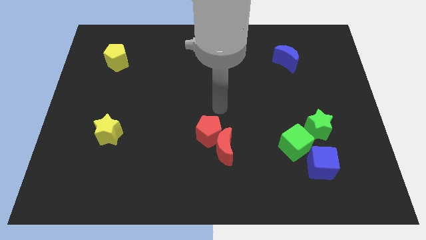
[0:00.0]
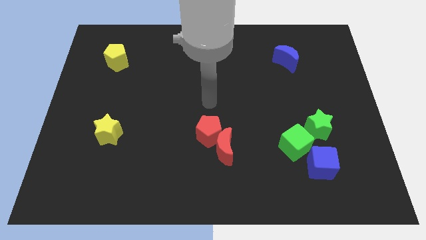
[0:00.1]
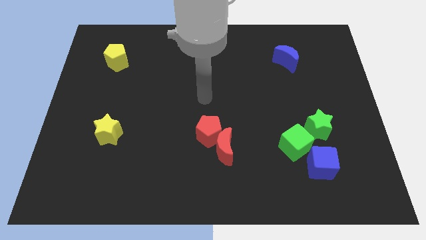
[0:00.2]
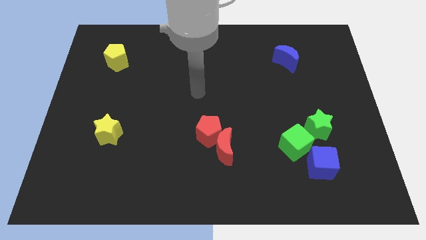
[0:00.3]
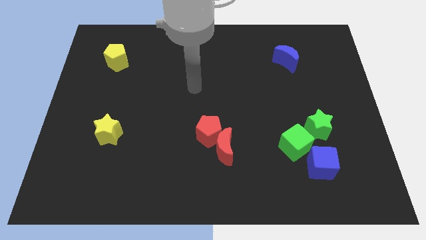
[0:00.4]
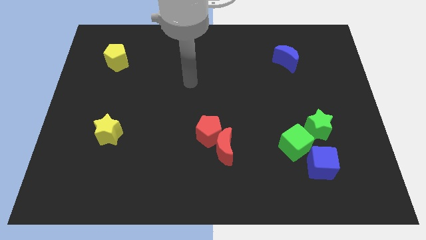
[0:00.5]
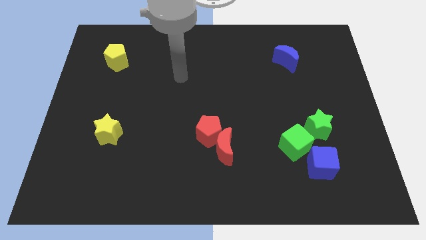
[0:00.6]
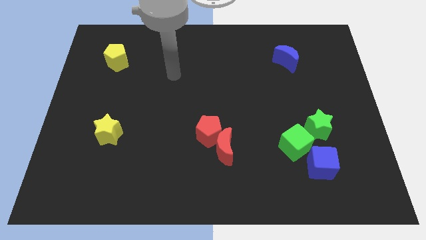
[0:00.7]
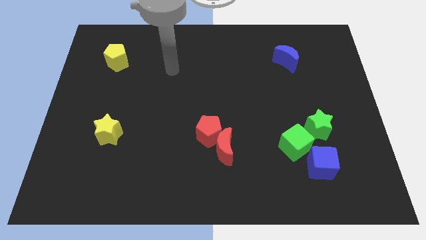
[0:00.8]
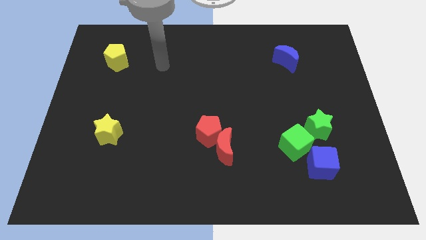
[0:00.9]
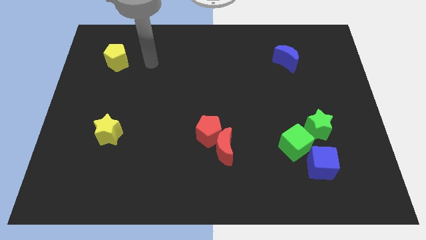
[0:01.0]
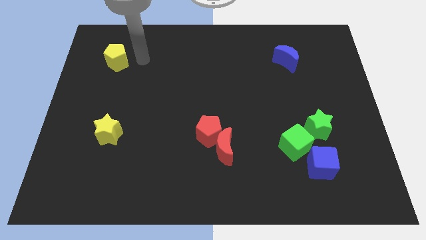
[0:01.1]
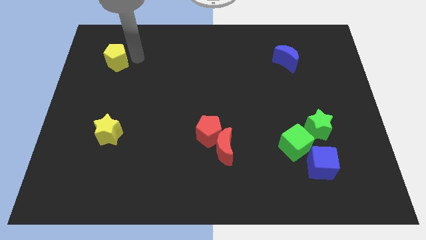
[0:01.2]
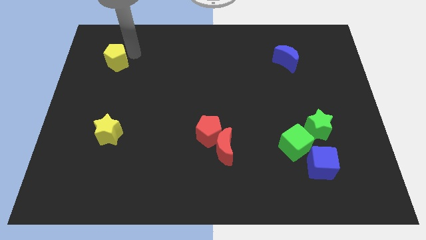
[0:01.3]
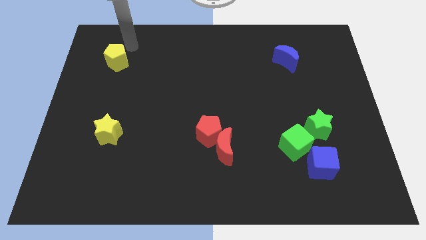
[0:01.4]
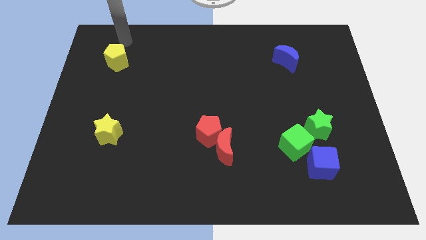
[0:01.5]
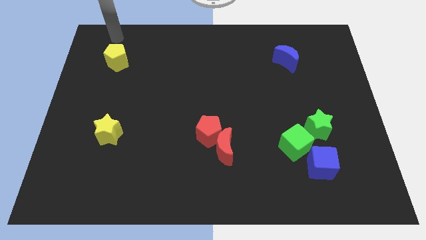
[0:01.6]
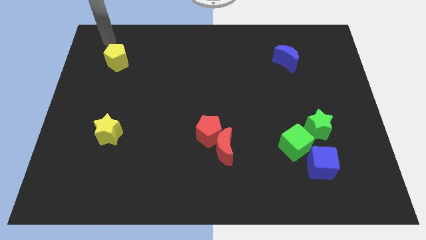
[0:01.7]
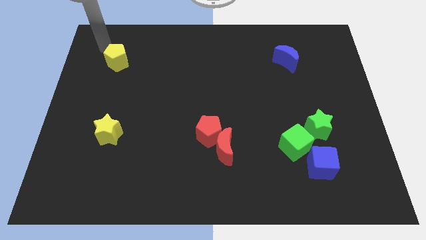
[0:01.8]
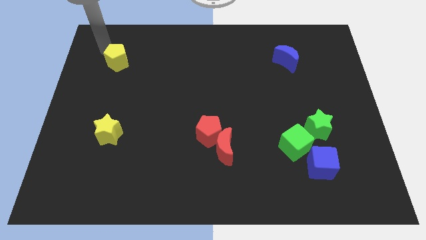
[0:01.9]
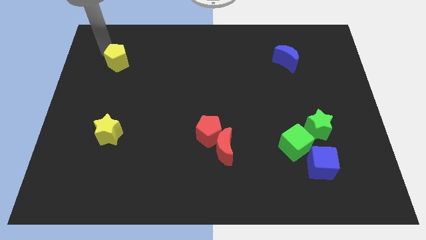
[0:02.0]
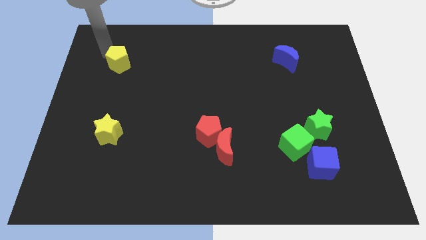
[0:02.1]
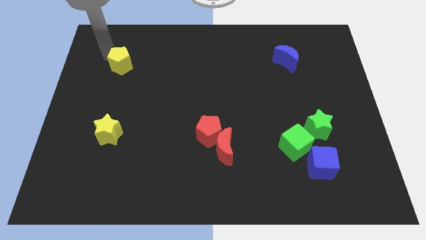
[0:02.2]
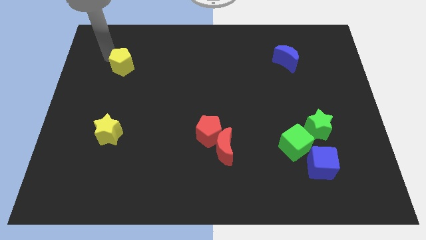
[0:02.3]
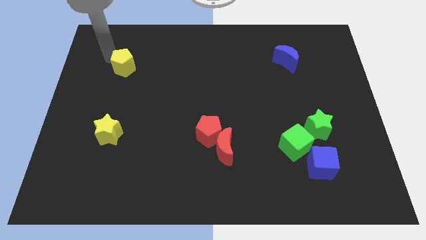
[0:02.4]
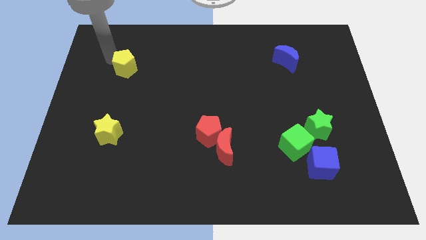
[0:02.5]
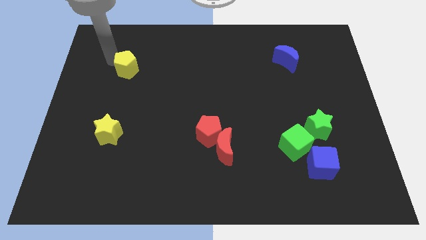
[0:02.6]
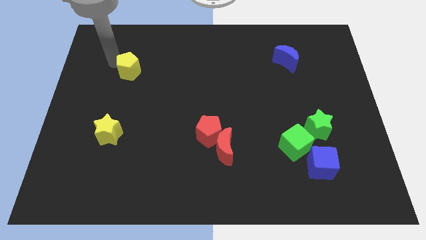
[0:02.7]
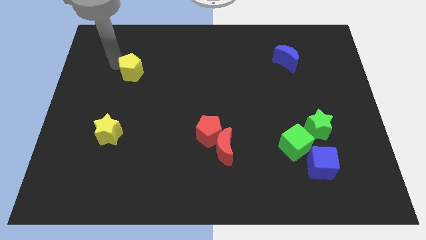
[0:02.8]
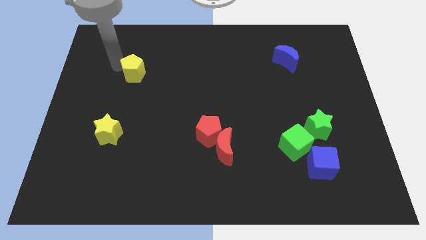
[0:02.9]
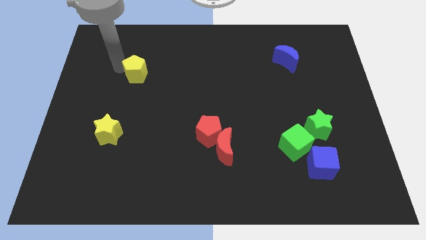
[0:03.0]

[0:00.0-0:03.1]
slide the yellow pentagon diagonally down and right slightly

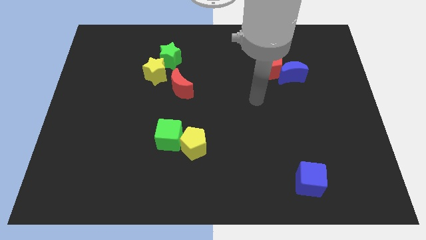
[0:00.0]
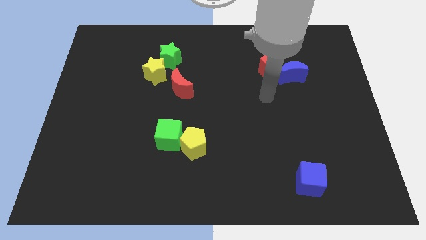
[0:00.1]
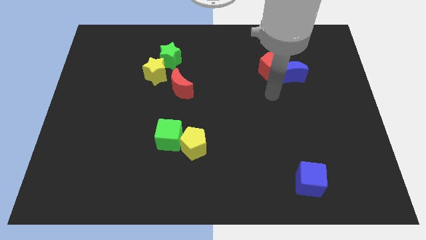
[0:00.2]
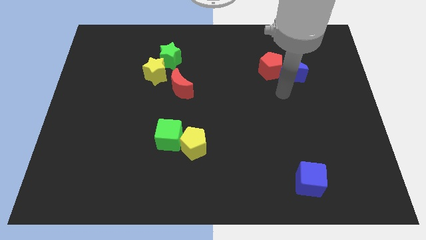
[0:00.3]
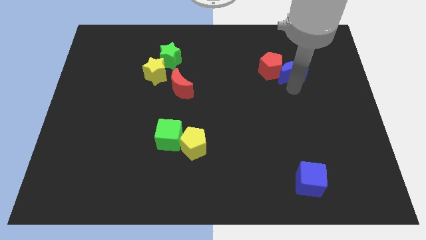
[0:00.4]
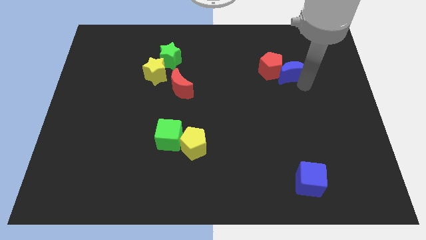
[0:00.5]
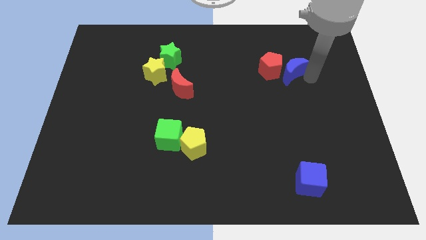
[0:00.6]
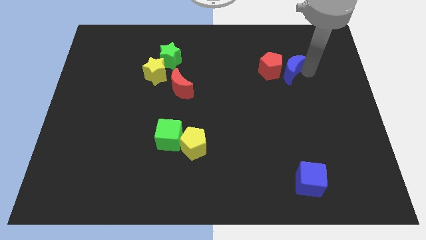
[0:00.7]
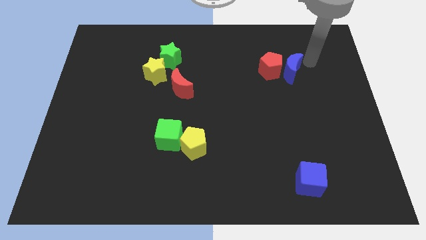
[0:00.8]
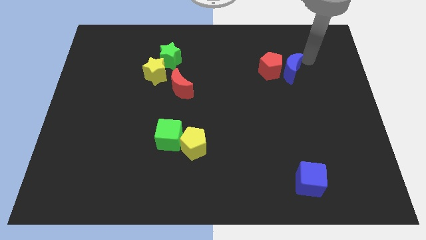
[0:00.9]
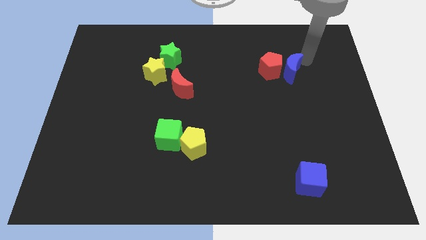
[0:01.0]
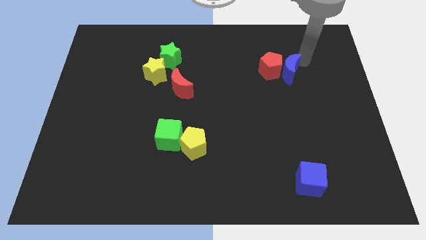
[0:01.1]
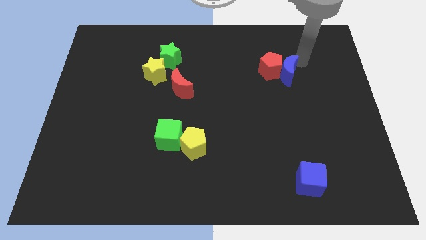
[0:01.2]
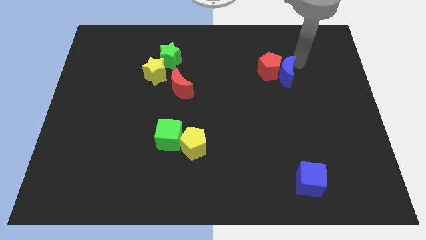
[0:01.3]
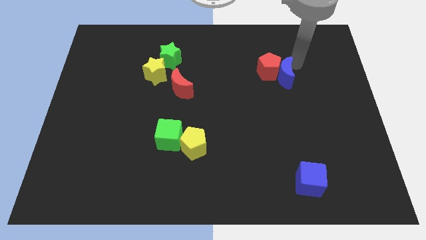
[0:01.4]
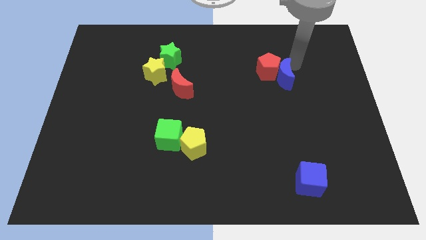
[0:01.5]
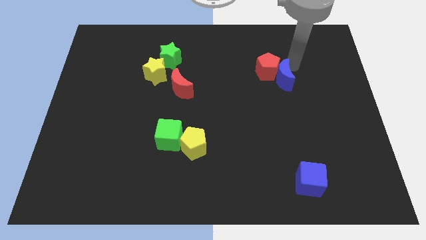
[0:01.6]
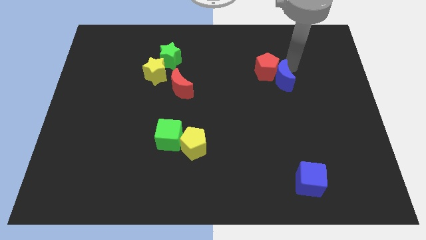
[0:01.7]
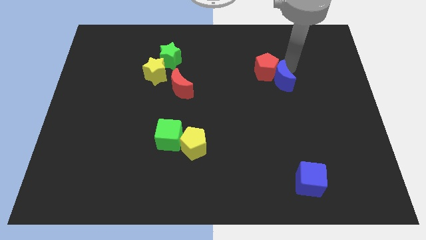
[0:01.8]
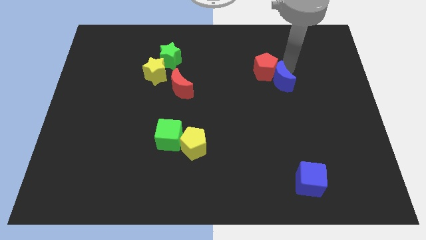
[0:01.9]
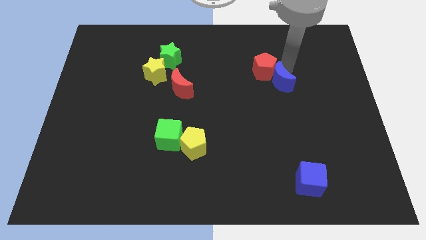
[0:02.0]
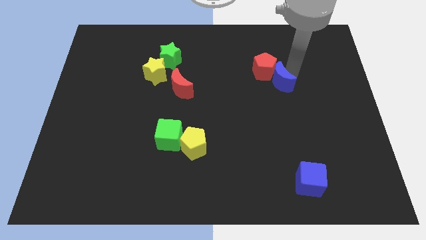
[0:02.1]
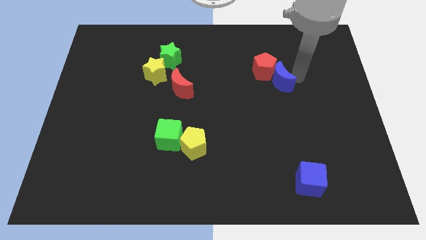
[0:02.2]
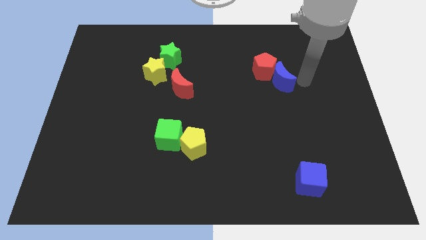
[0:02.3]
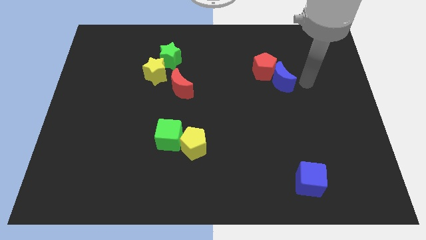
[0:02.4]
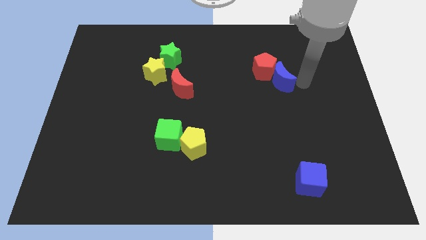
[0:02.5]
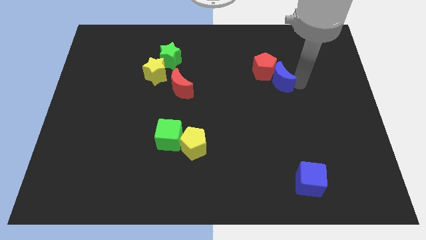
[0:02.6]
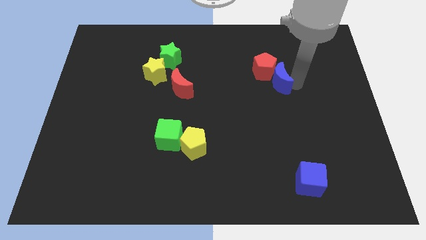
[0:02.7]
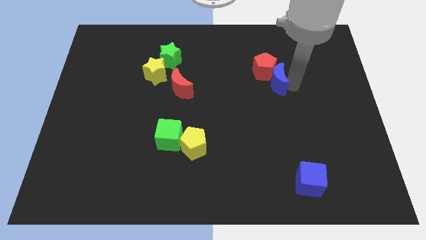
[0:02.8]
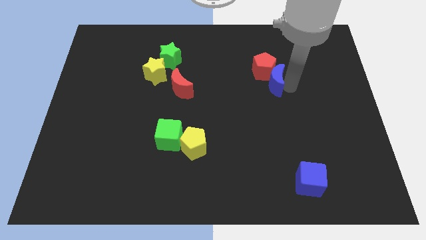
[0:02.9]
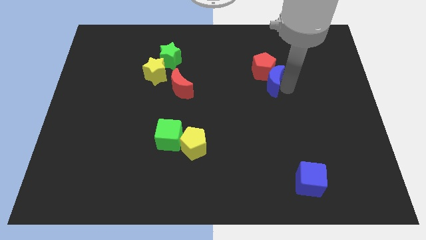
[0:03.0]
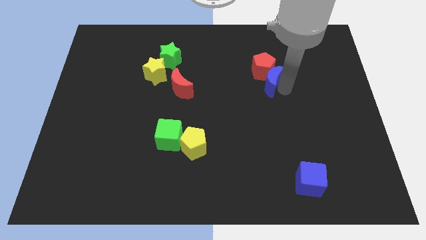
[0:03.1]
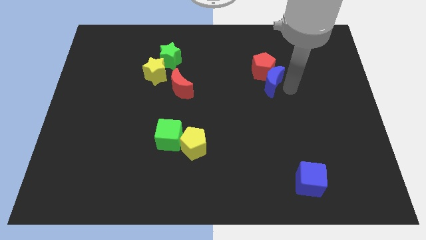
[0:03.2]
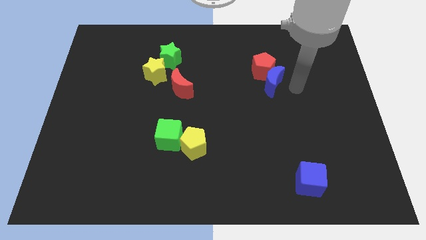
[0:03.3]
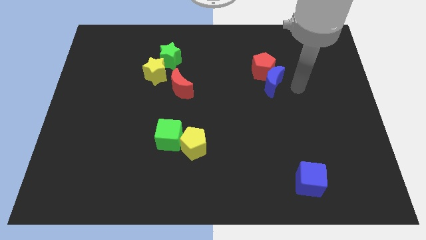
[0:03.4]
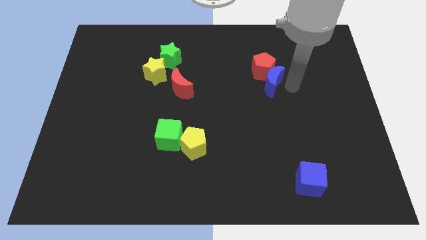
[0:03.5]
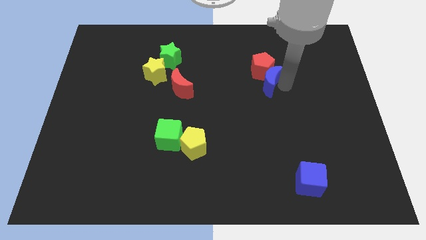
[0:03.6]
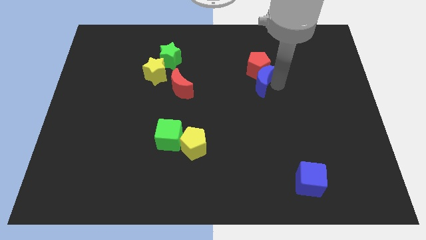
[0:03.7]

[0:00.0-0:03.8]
push the blue moon left slightly

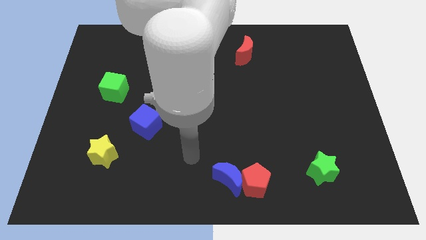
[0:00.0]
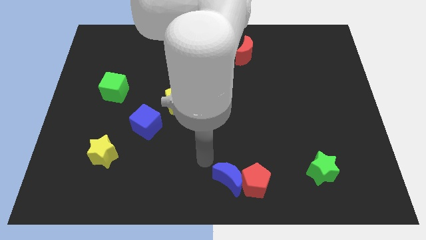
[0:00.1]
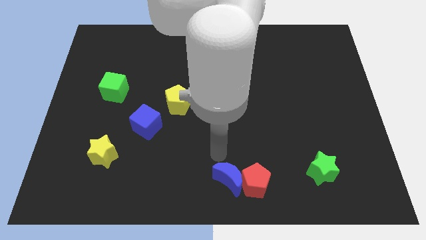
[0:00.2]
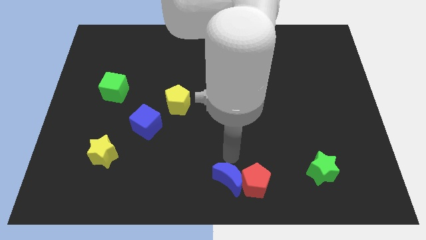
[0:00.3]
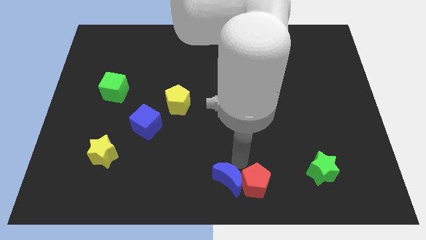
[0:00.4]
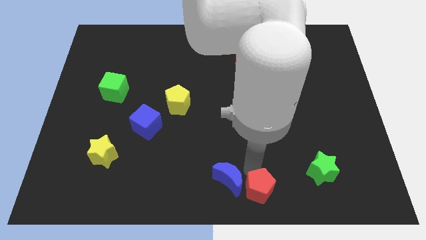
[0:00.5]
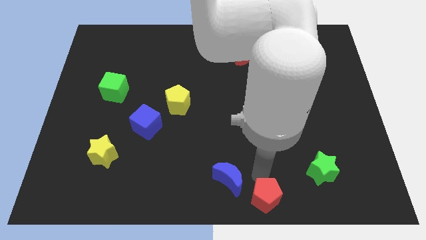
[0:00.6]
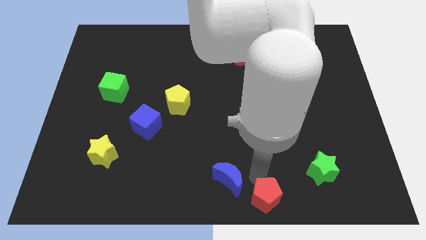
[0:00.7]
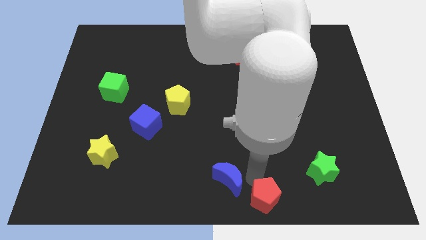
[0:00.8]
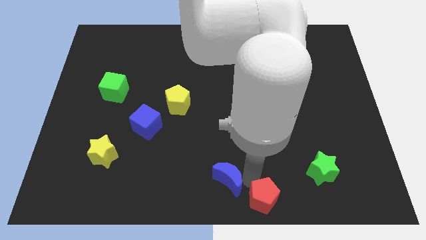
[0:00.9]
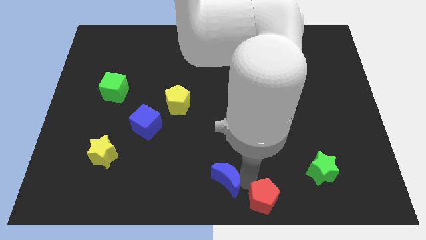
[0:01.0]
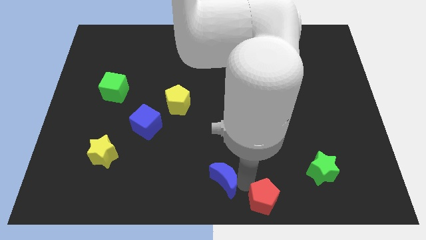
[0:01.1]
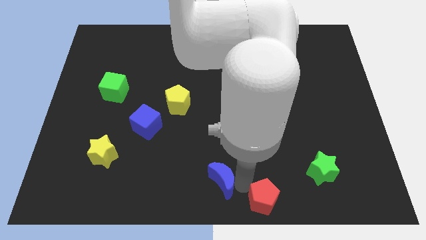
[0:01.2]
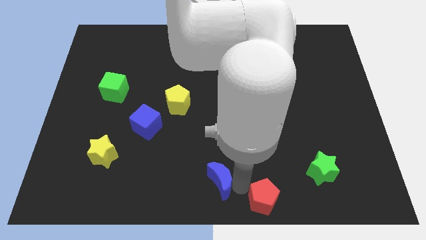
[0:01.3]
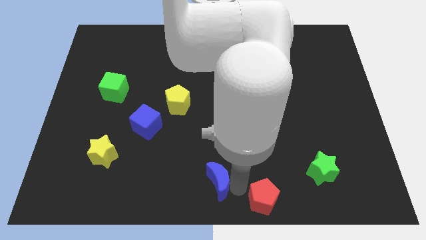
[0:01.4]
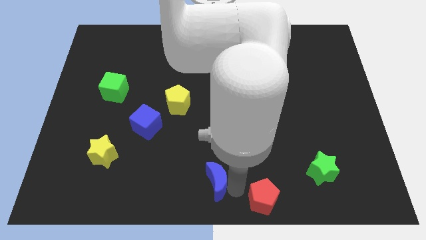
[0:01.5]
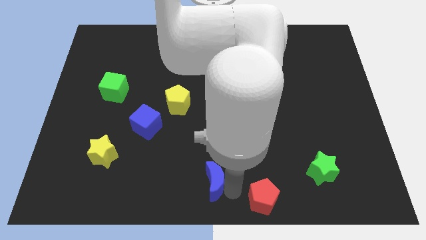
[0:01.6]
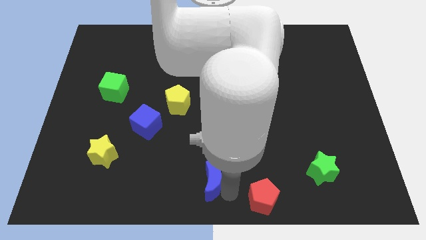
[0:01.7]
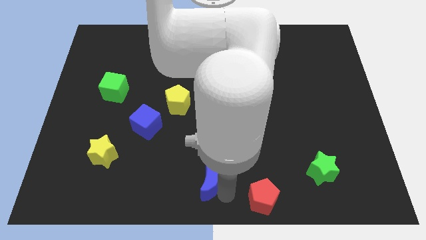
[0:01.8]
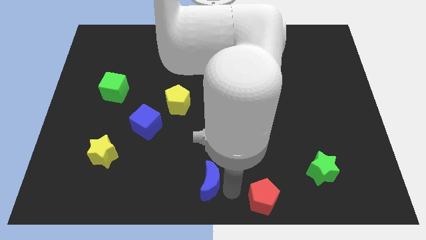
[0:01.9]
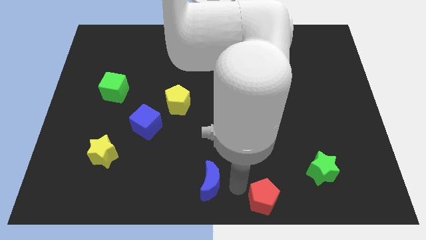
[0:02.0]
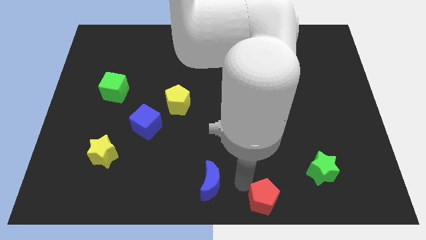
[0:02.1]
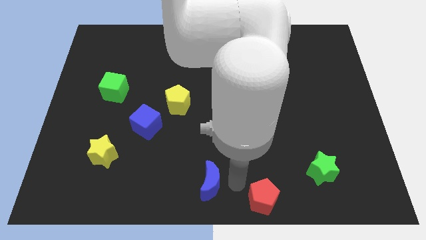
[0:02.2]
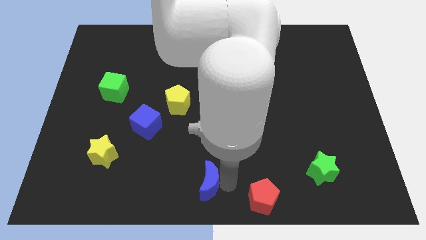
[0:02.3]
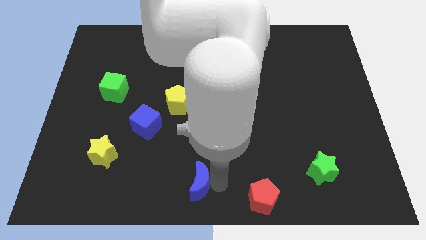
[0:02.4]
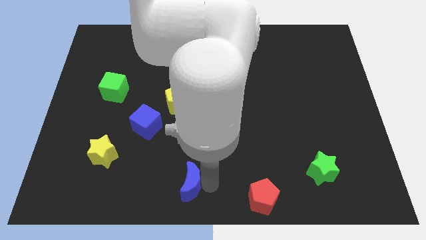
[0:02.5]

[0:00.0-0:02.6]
slightly move the blue moon left
